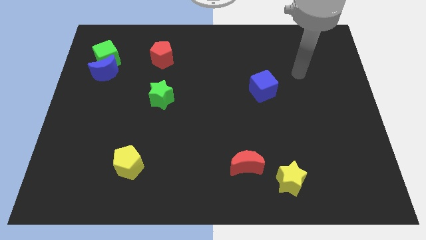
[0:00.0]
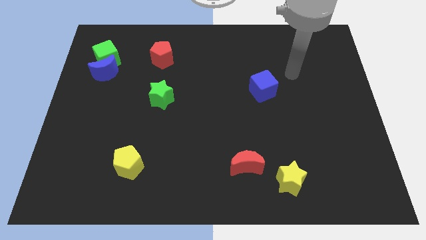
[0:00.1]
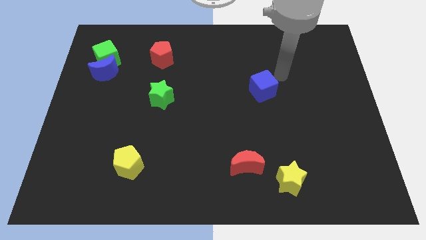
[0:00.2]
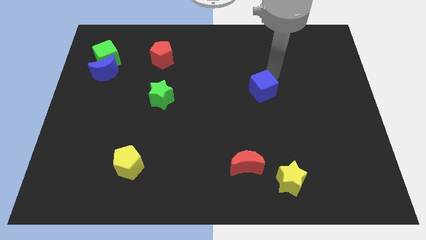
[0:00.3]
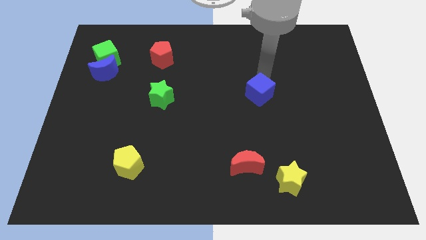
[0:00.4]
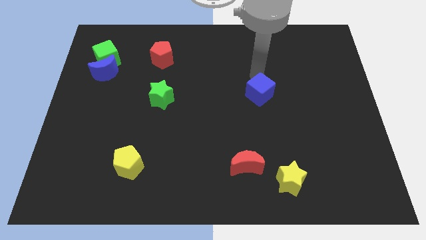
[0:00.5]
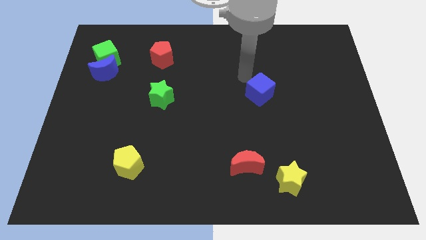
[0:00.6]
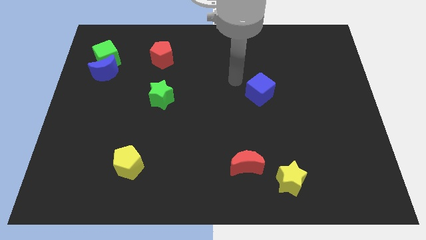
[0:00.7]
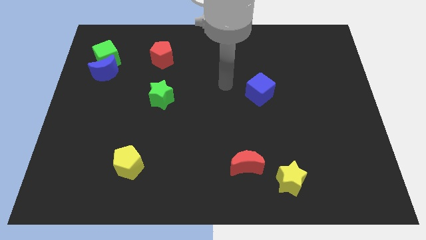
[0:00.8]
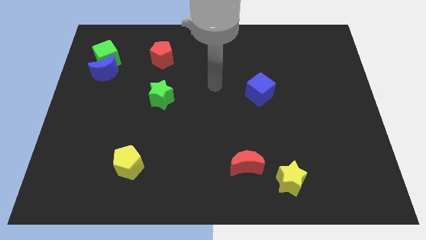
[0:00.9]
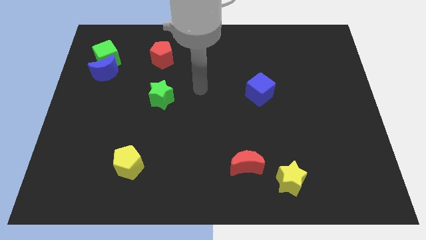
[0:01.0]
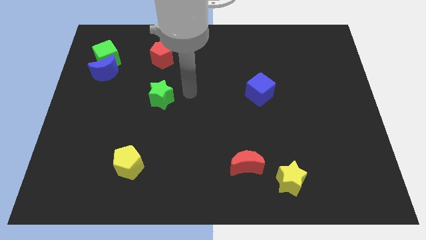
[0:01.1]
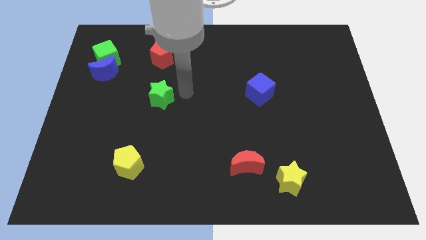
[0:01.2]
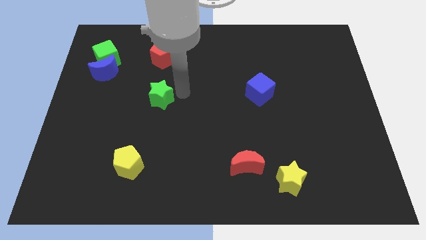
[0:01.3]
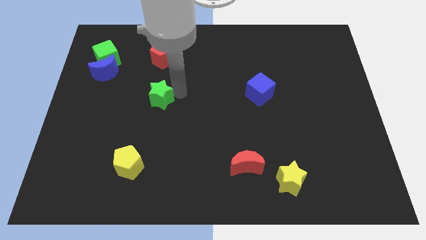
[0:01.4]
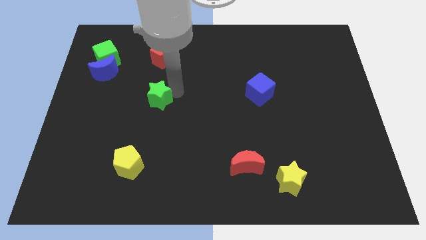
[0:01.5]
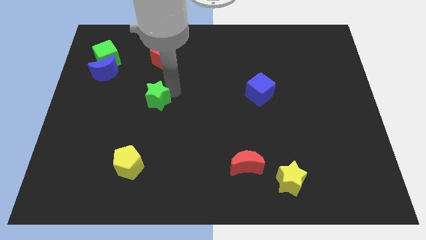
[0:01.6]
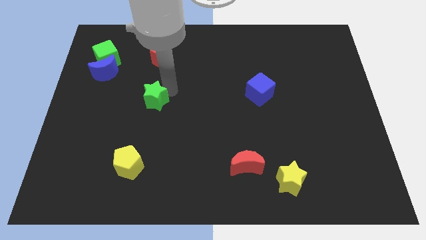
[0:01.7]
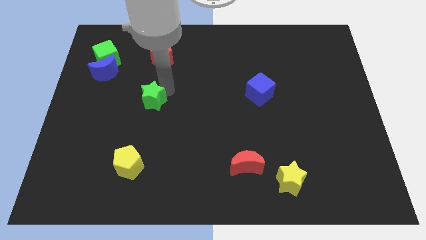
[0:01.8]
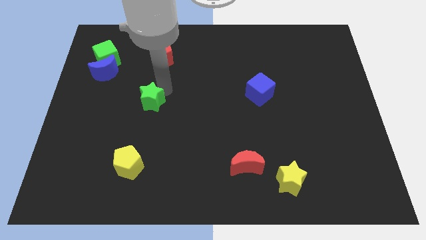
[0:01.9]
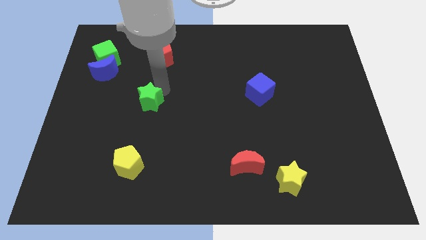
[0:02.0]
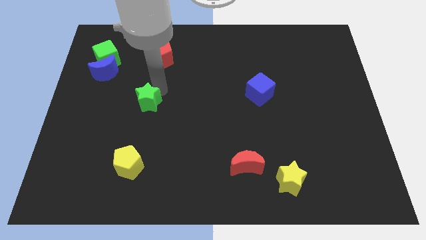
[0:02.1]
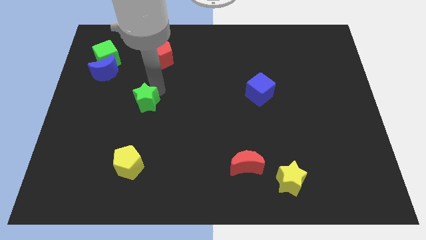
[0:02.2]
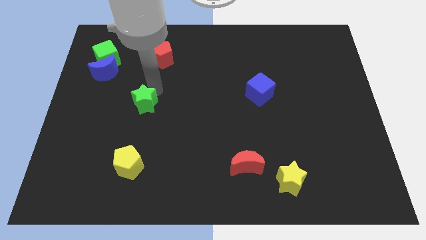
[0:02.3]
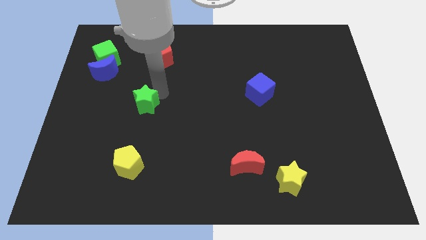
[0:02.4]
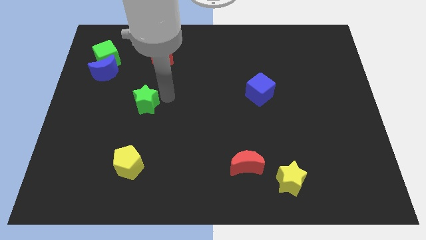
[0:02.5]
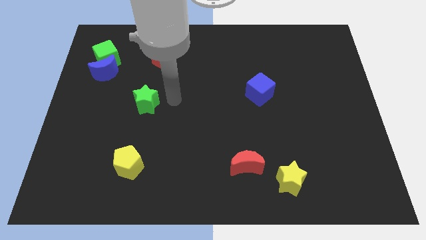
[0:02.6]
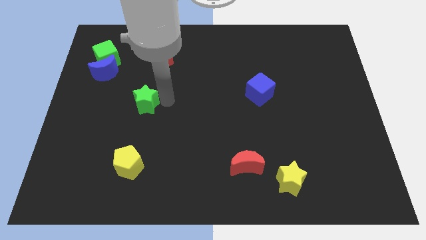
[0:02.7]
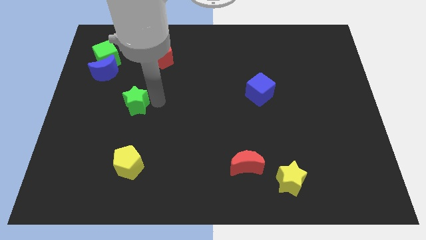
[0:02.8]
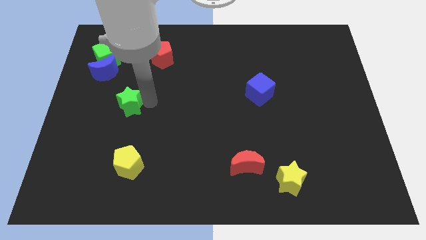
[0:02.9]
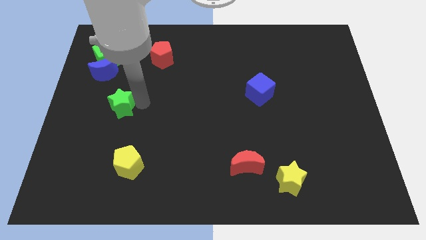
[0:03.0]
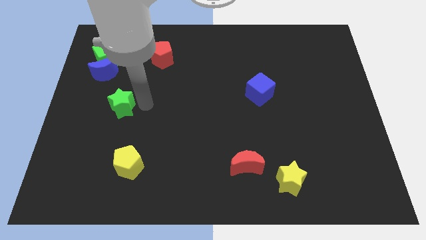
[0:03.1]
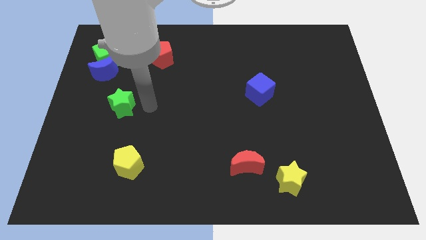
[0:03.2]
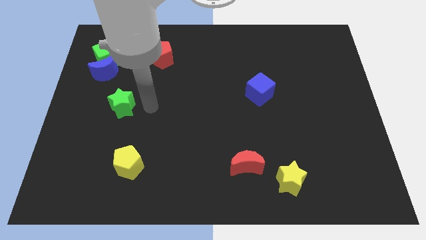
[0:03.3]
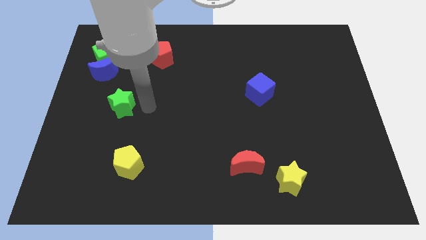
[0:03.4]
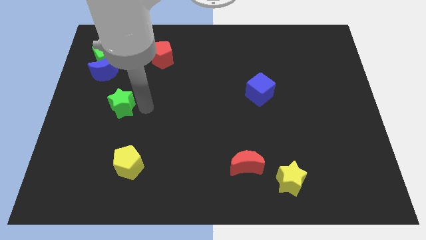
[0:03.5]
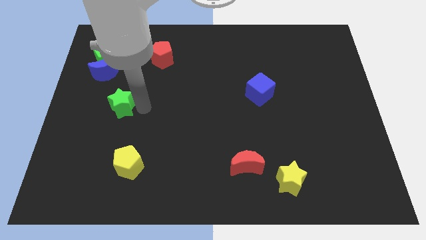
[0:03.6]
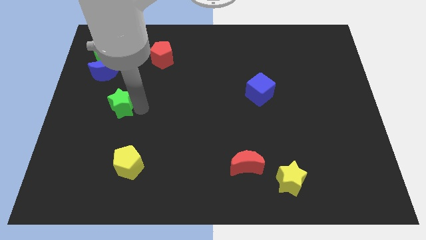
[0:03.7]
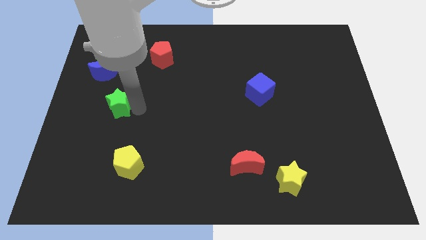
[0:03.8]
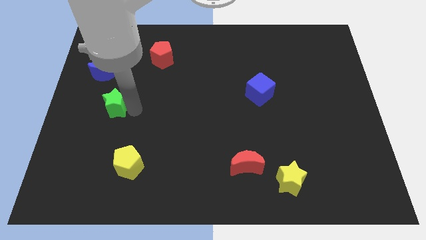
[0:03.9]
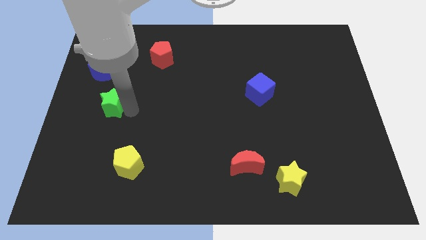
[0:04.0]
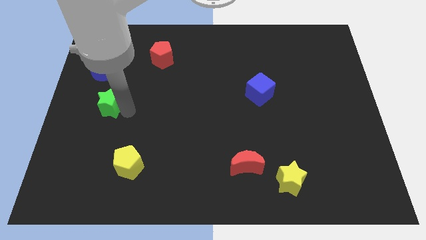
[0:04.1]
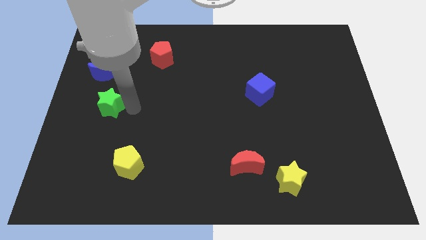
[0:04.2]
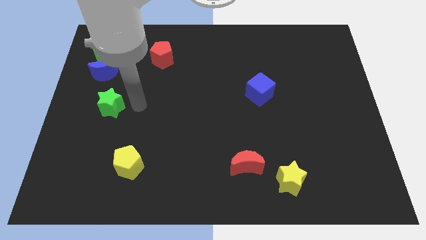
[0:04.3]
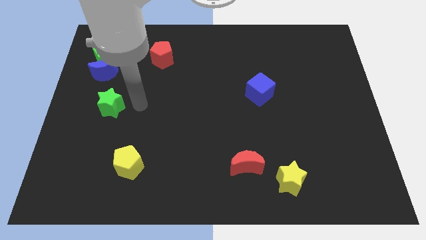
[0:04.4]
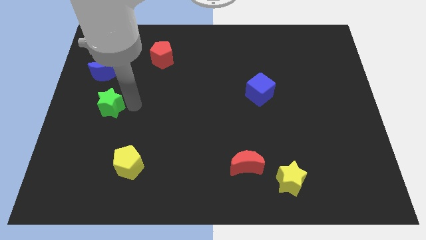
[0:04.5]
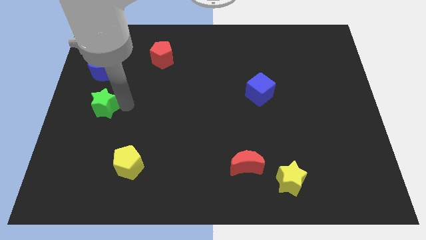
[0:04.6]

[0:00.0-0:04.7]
slide the green star to the left side

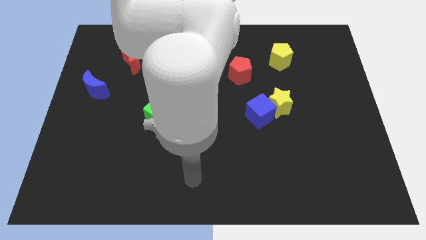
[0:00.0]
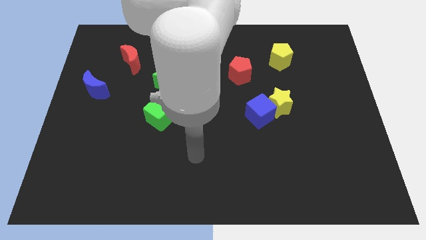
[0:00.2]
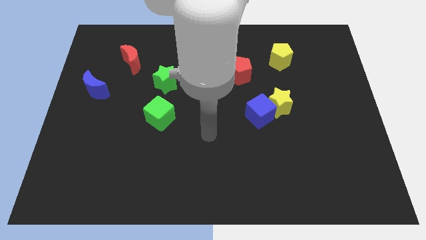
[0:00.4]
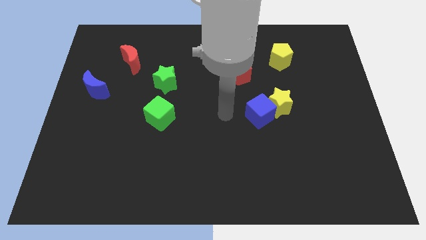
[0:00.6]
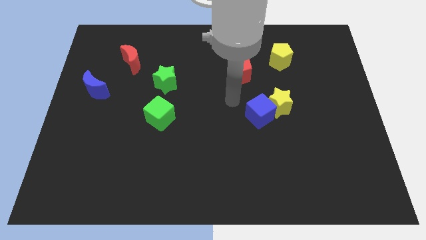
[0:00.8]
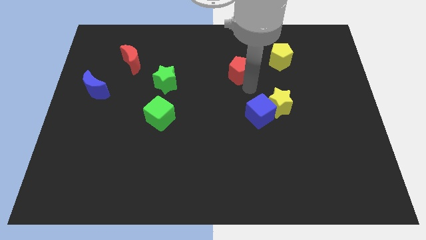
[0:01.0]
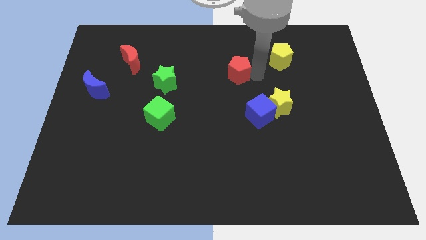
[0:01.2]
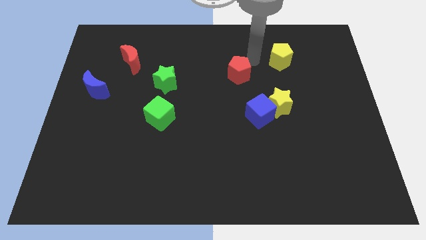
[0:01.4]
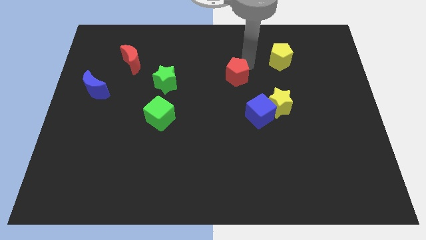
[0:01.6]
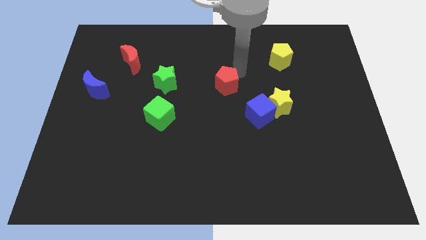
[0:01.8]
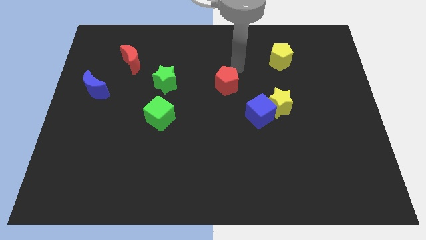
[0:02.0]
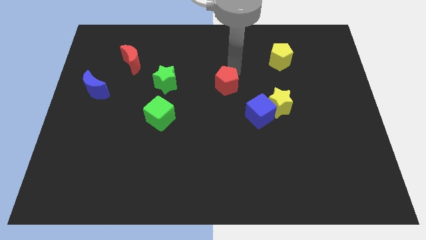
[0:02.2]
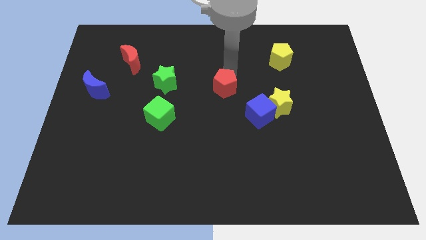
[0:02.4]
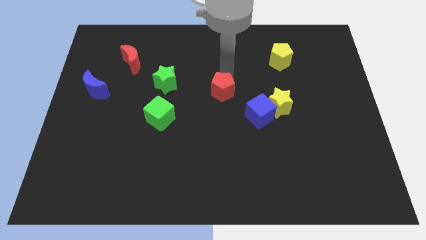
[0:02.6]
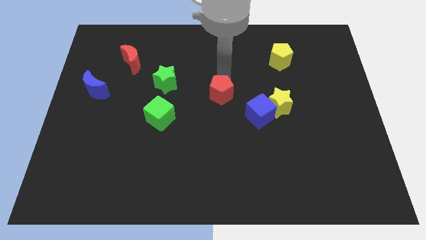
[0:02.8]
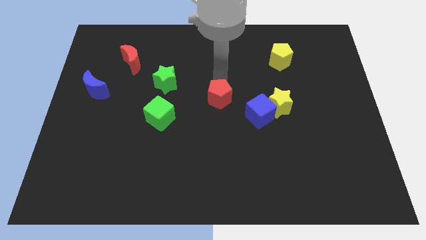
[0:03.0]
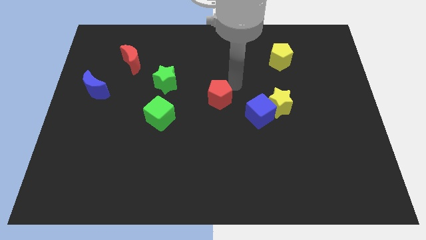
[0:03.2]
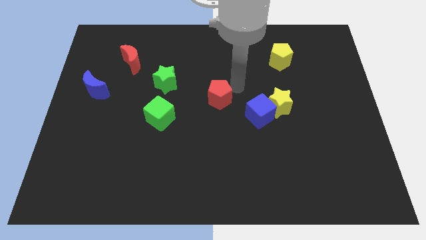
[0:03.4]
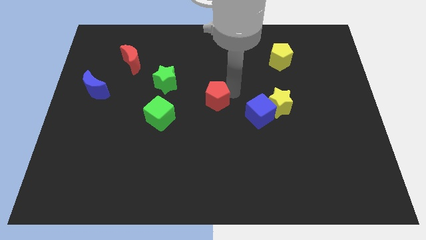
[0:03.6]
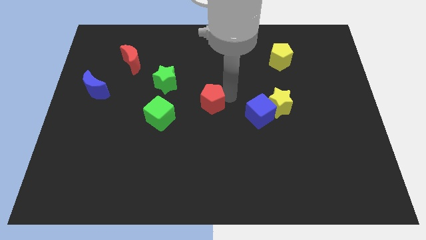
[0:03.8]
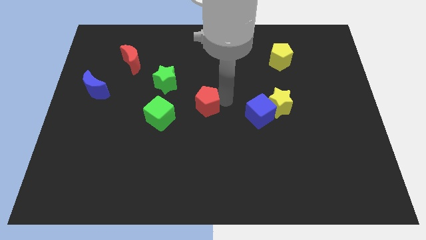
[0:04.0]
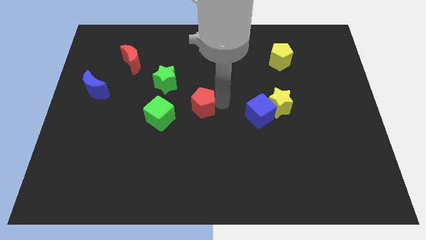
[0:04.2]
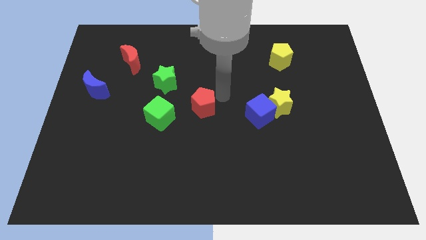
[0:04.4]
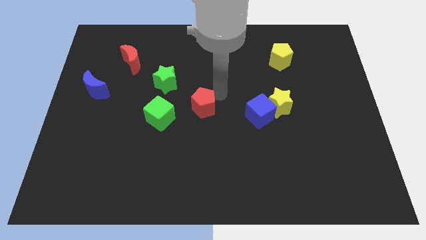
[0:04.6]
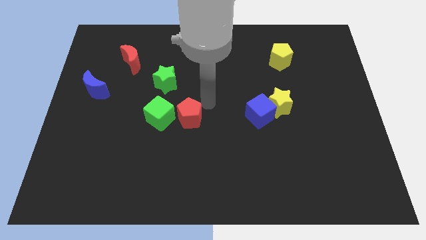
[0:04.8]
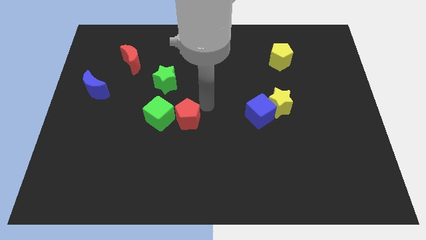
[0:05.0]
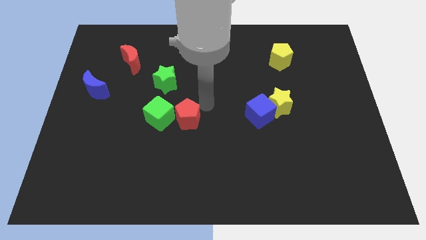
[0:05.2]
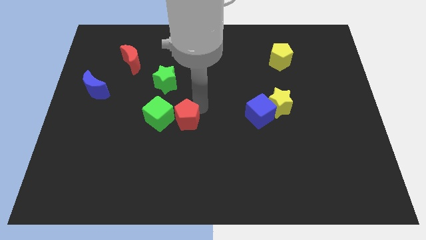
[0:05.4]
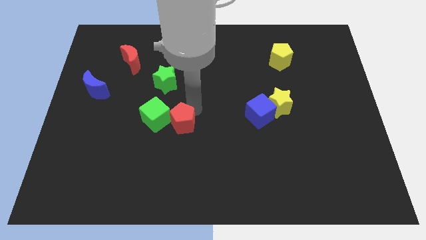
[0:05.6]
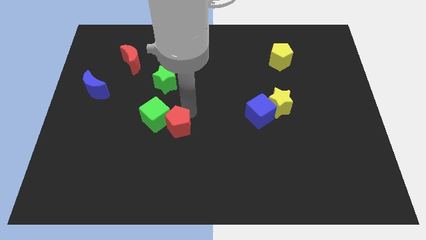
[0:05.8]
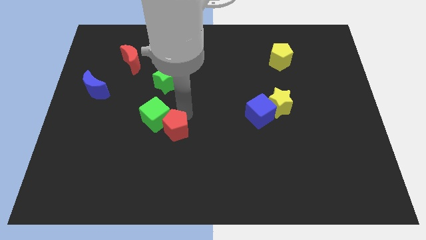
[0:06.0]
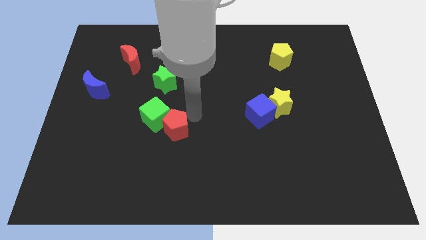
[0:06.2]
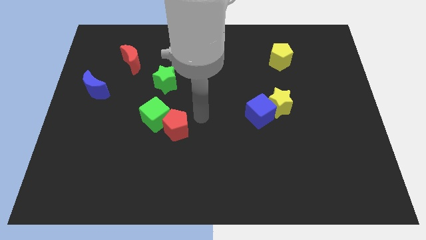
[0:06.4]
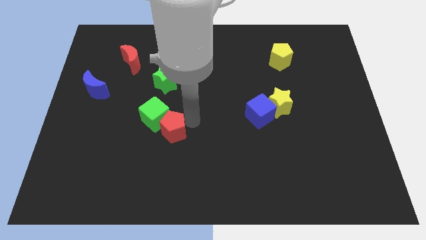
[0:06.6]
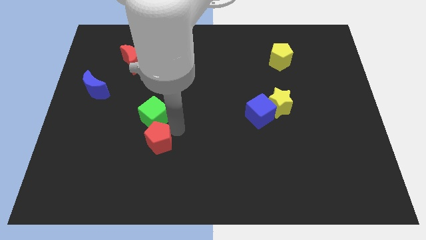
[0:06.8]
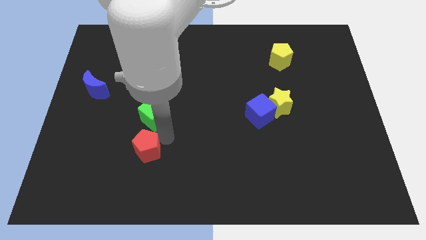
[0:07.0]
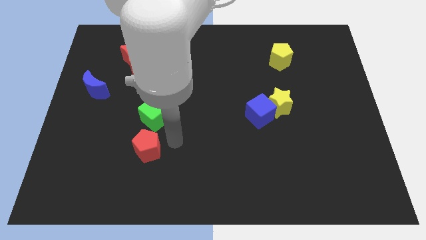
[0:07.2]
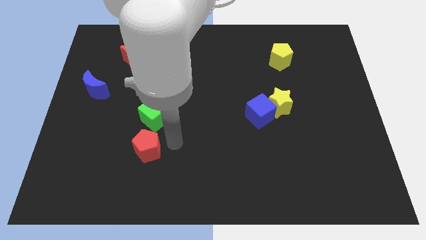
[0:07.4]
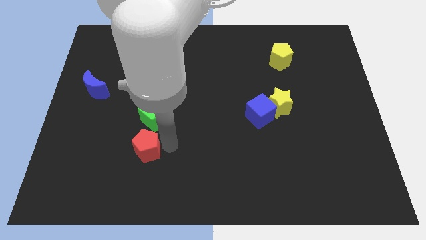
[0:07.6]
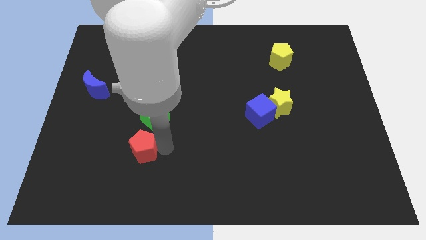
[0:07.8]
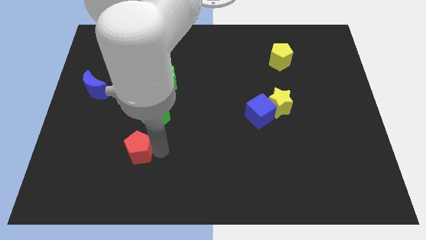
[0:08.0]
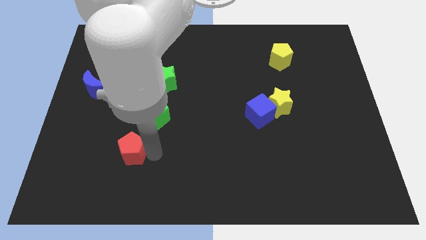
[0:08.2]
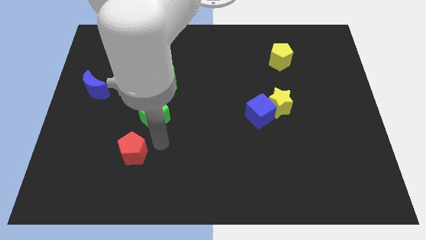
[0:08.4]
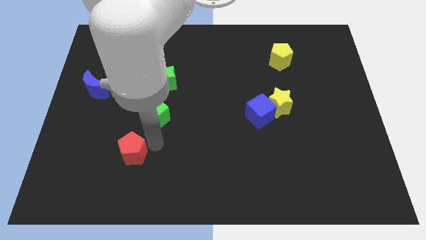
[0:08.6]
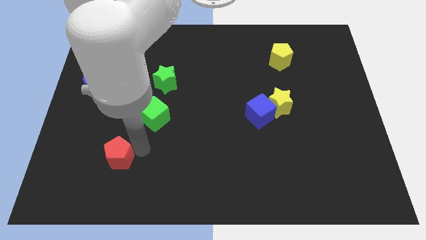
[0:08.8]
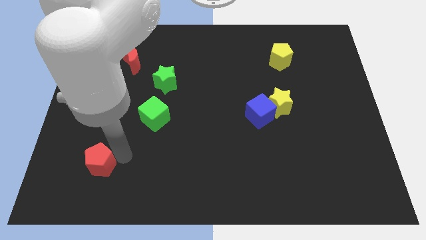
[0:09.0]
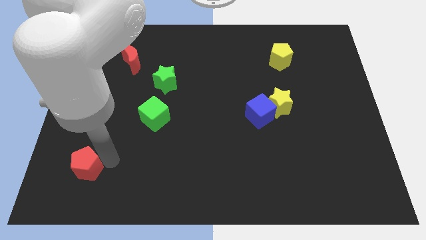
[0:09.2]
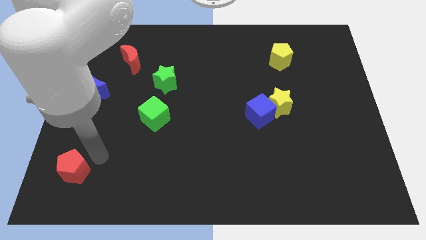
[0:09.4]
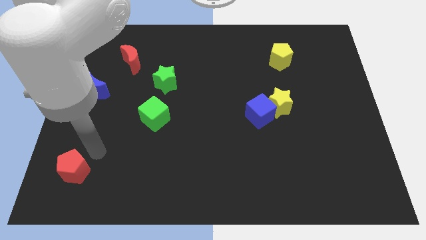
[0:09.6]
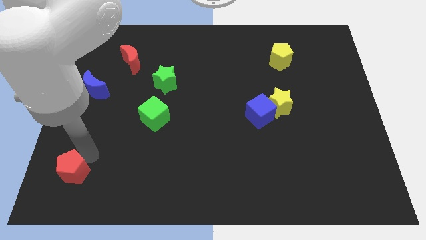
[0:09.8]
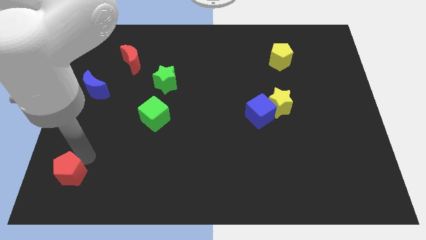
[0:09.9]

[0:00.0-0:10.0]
move the red pentagon to the bottom left of the board
